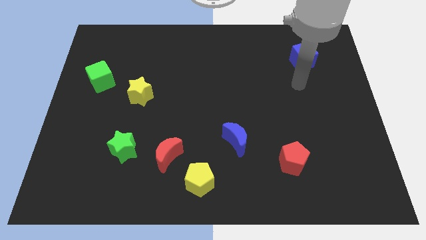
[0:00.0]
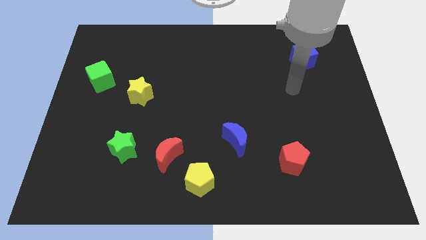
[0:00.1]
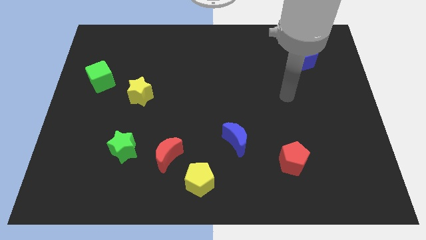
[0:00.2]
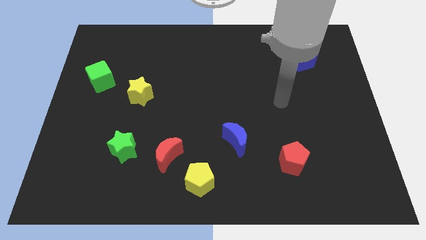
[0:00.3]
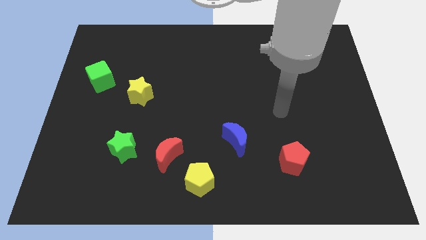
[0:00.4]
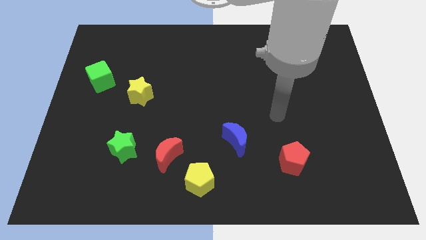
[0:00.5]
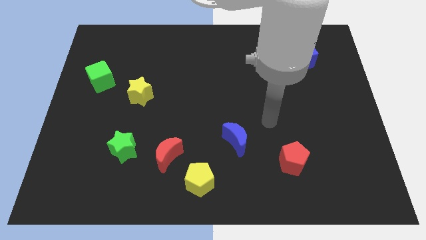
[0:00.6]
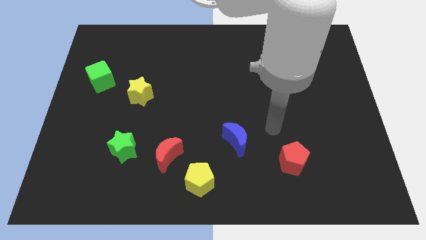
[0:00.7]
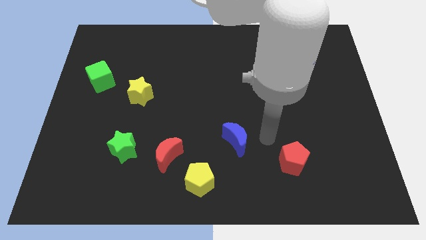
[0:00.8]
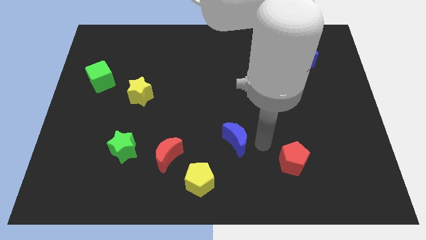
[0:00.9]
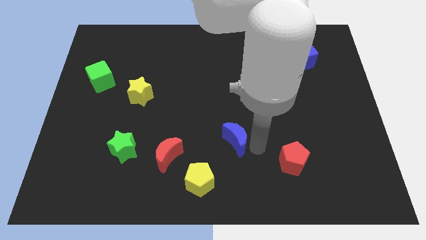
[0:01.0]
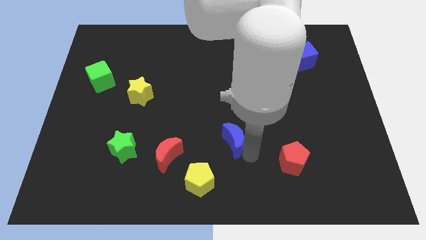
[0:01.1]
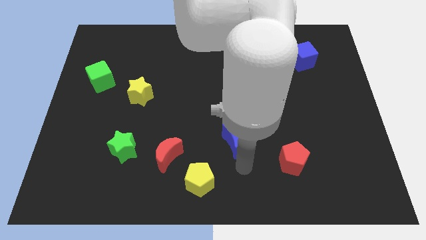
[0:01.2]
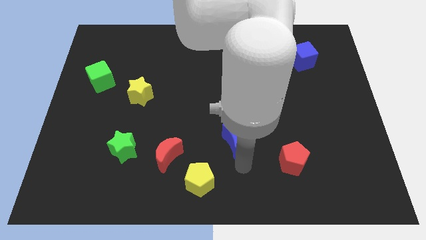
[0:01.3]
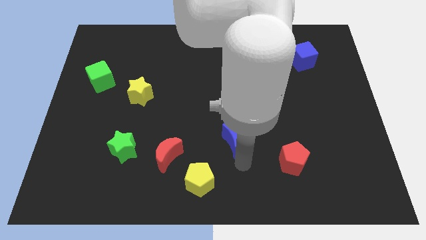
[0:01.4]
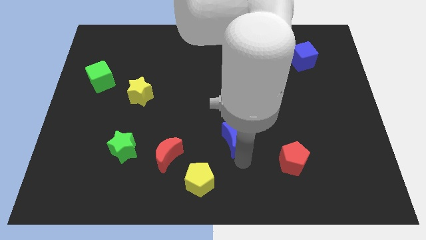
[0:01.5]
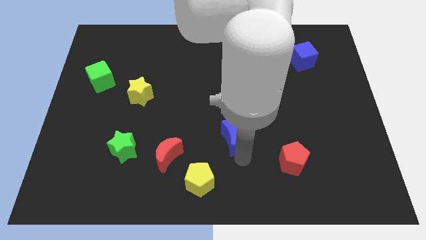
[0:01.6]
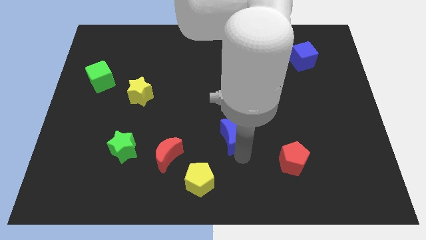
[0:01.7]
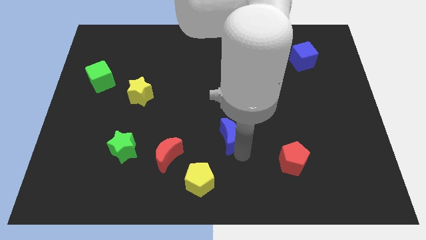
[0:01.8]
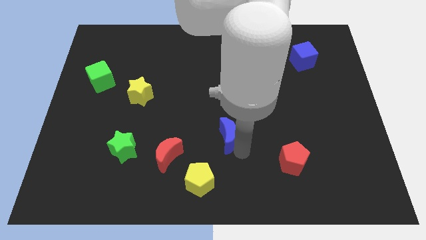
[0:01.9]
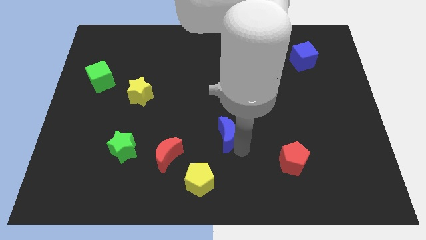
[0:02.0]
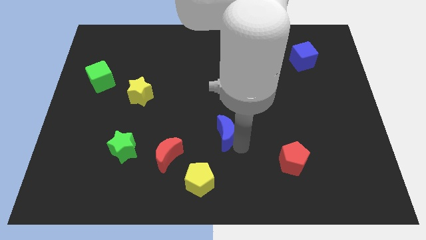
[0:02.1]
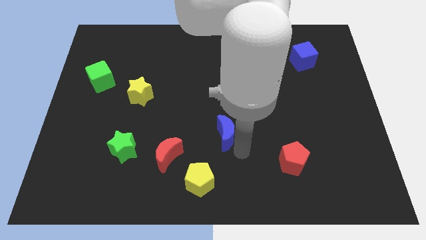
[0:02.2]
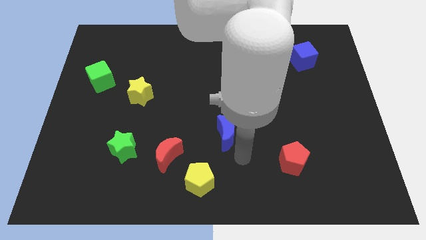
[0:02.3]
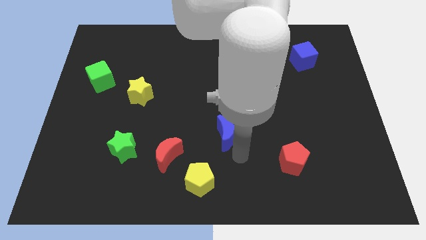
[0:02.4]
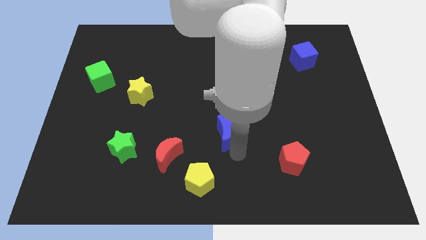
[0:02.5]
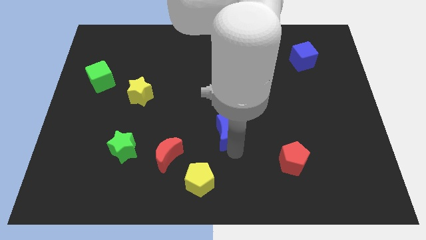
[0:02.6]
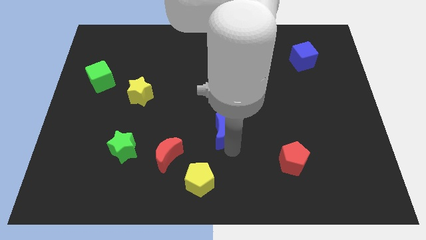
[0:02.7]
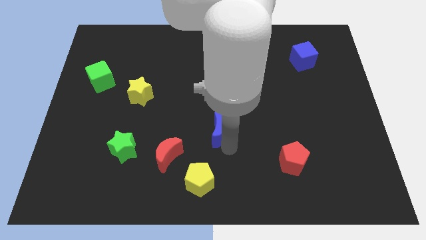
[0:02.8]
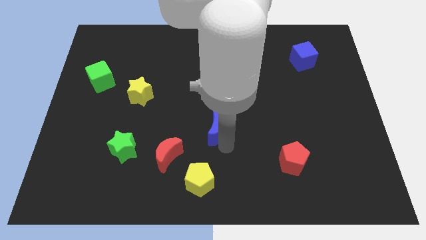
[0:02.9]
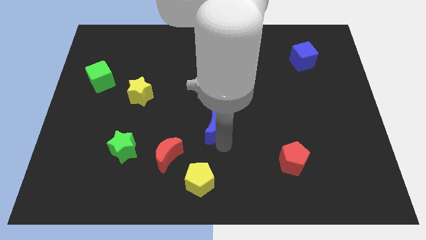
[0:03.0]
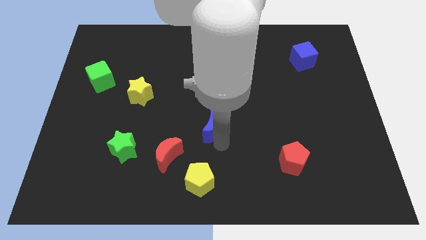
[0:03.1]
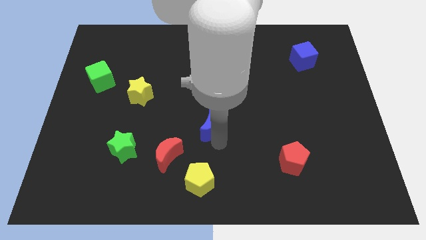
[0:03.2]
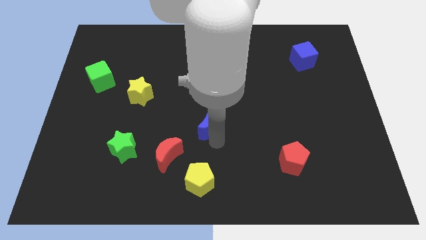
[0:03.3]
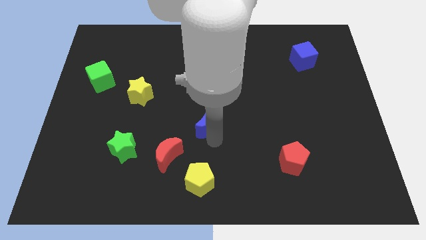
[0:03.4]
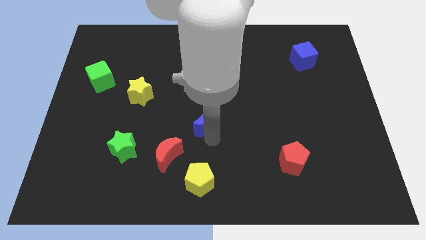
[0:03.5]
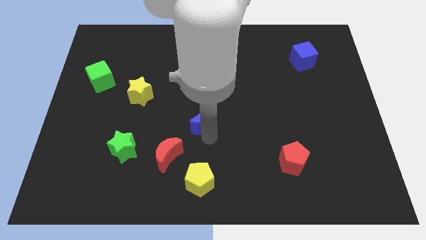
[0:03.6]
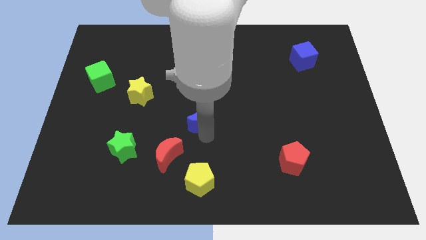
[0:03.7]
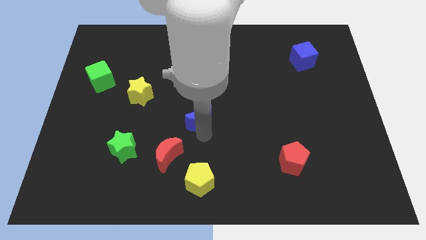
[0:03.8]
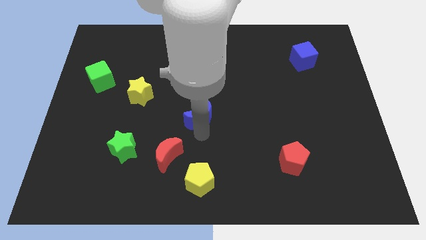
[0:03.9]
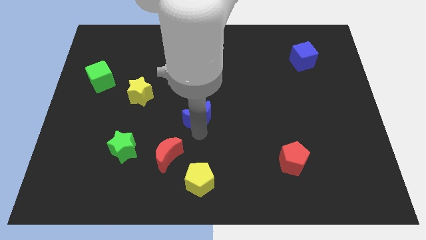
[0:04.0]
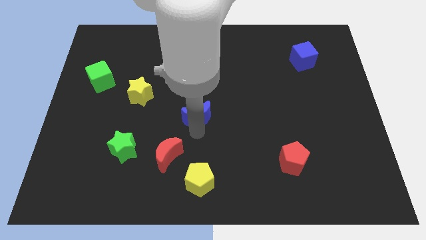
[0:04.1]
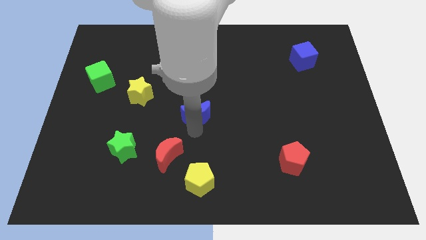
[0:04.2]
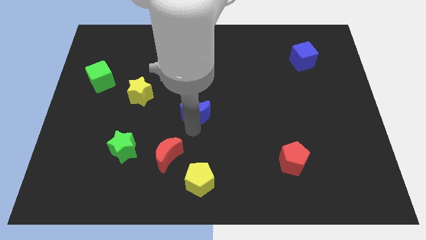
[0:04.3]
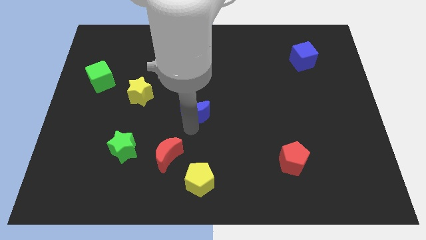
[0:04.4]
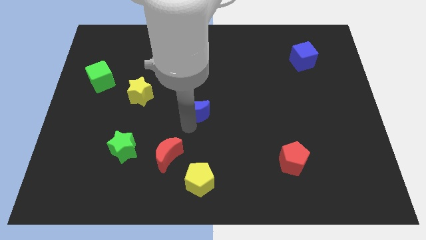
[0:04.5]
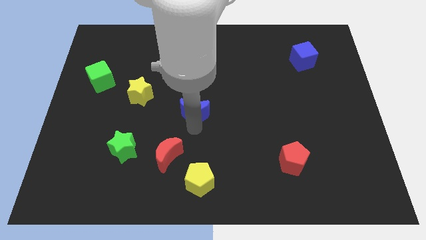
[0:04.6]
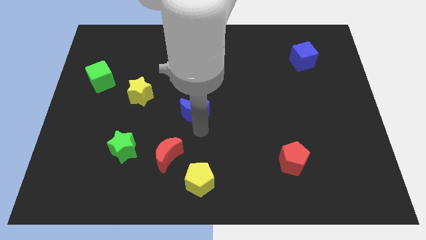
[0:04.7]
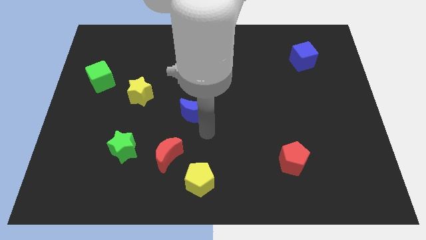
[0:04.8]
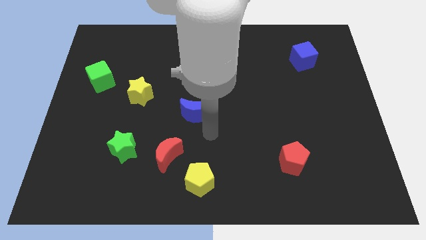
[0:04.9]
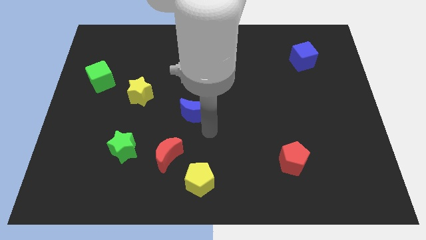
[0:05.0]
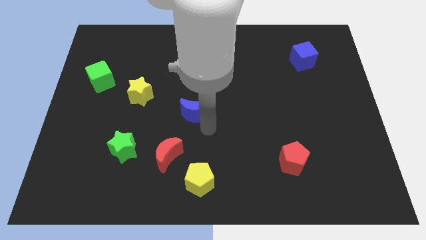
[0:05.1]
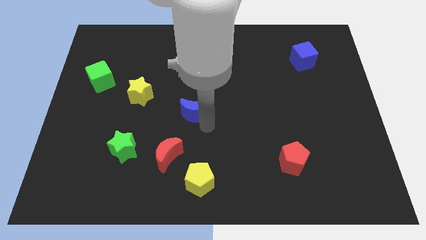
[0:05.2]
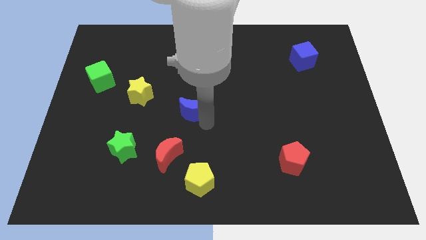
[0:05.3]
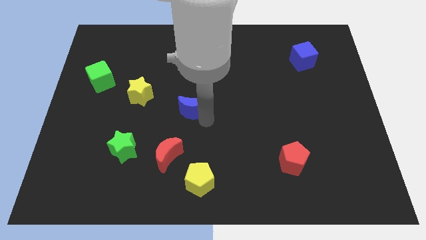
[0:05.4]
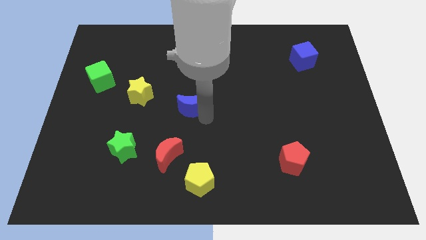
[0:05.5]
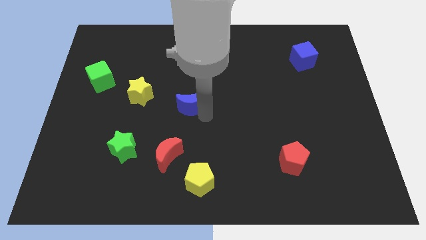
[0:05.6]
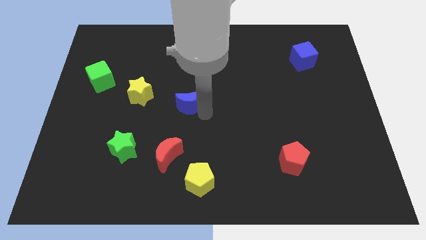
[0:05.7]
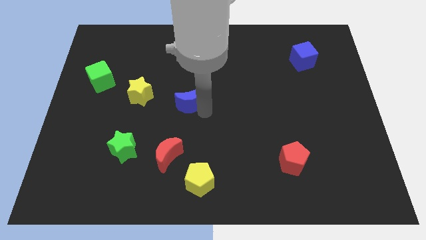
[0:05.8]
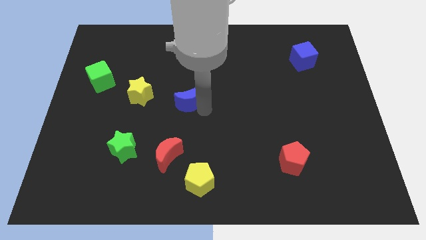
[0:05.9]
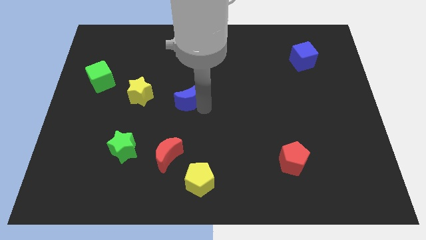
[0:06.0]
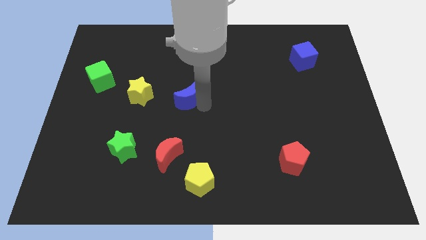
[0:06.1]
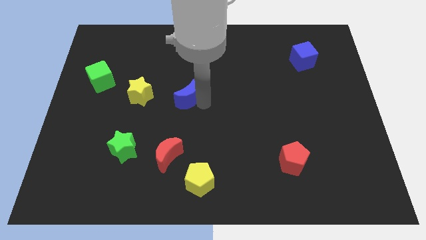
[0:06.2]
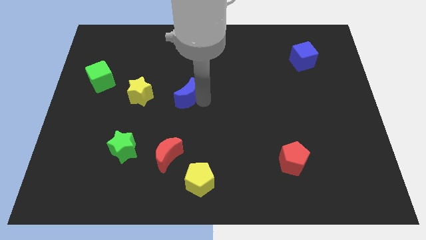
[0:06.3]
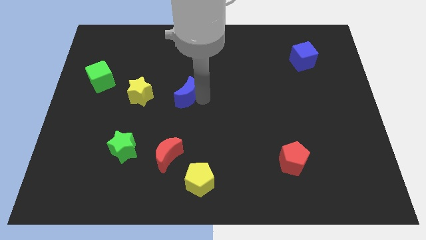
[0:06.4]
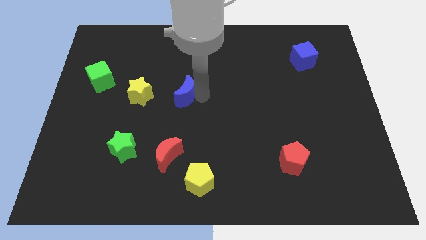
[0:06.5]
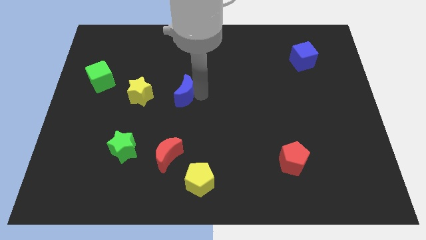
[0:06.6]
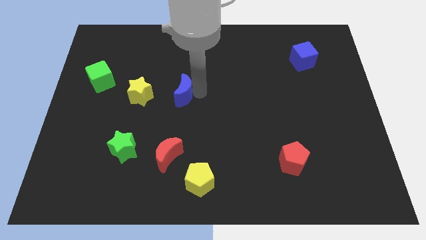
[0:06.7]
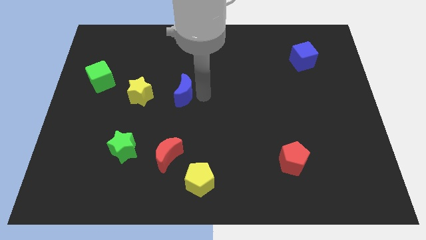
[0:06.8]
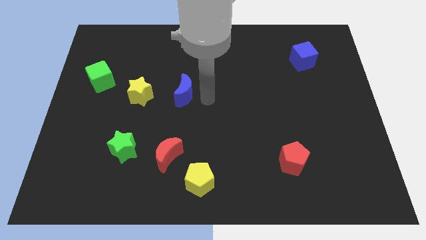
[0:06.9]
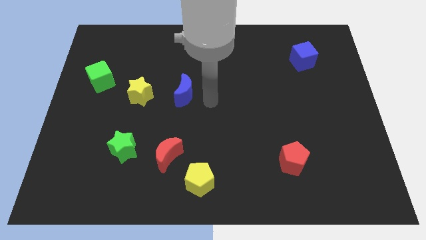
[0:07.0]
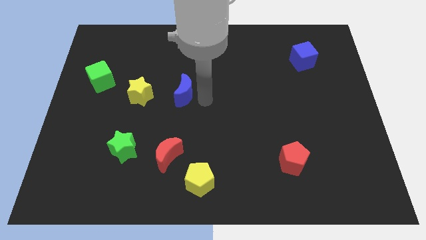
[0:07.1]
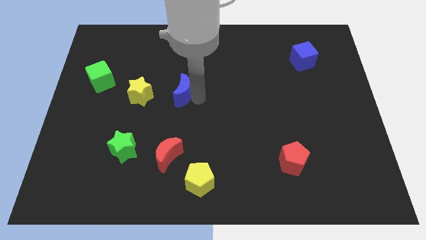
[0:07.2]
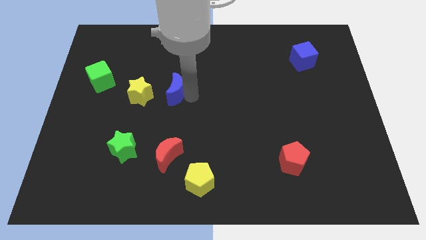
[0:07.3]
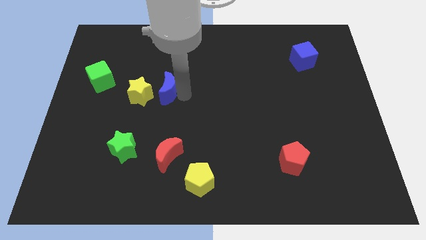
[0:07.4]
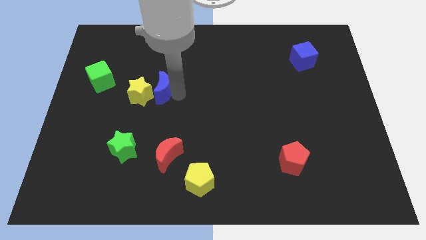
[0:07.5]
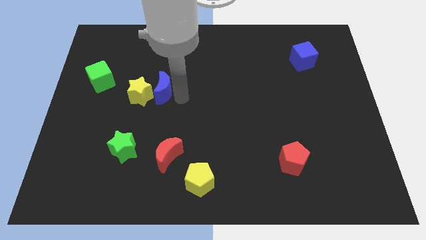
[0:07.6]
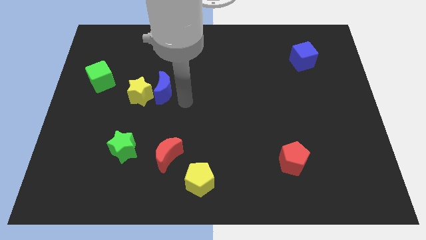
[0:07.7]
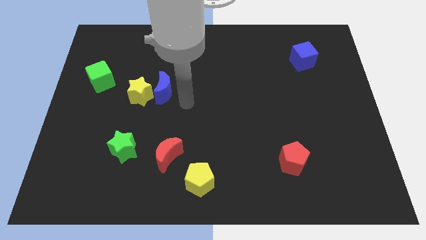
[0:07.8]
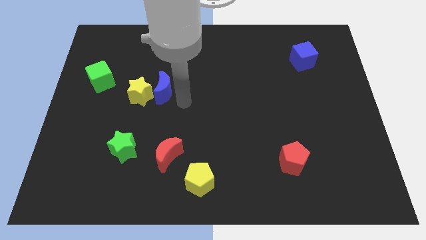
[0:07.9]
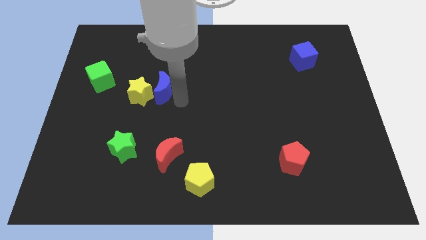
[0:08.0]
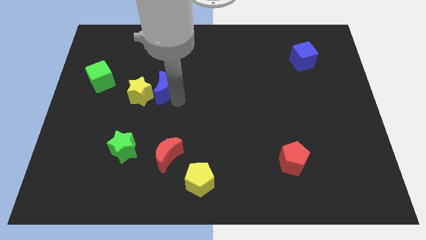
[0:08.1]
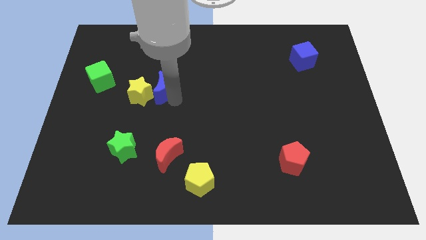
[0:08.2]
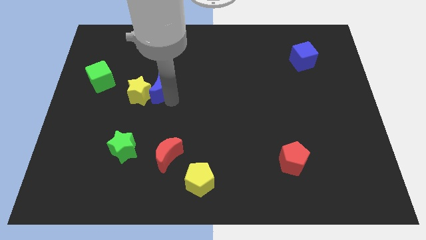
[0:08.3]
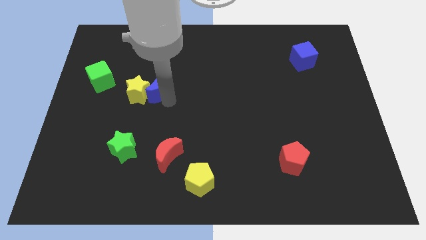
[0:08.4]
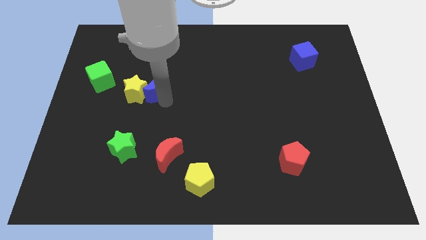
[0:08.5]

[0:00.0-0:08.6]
put the blue moon to the right side of the green cube
